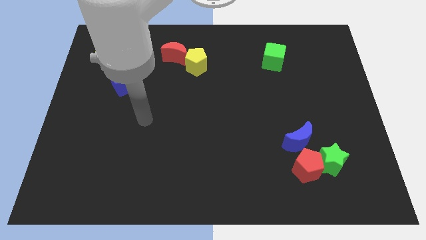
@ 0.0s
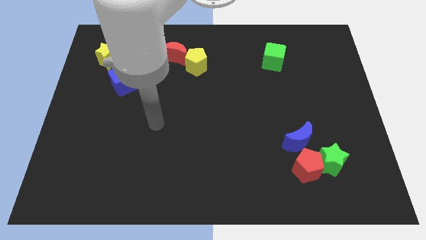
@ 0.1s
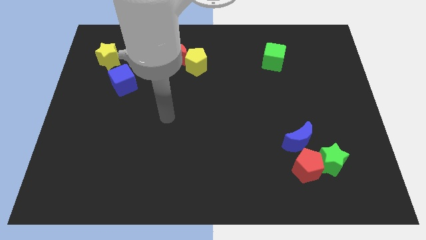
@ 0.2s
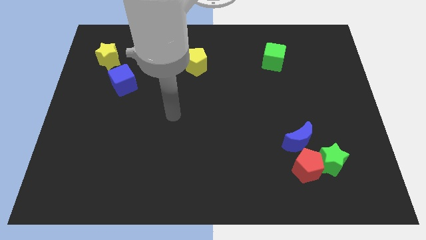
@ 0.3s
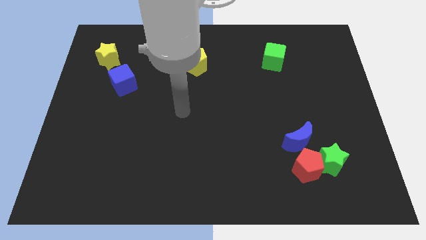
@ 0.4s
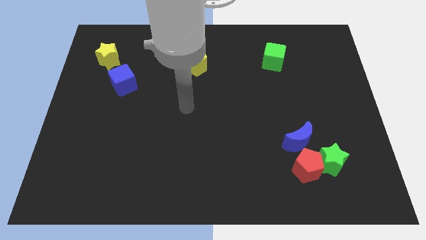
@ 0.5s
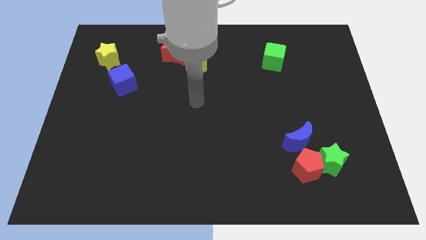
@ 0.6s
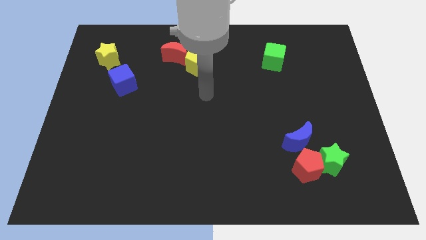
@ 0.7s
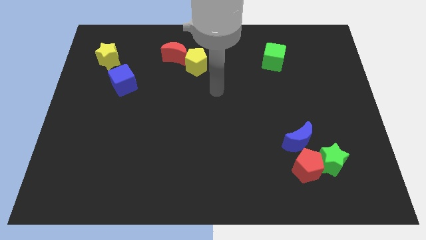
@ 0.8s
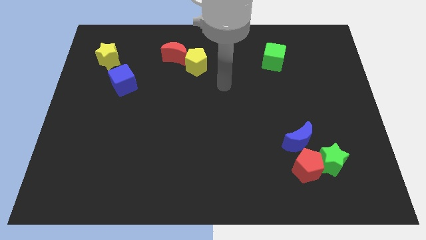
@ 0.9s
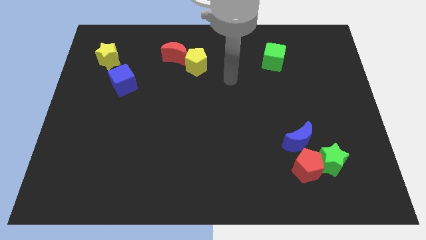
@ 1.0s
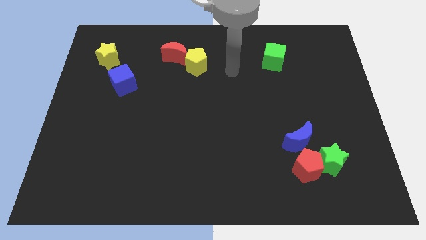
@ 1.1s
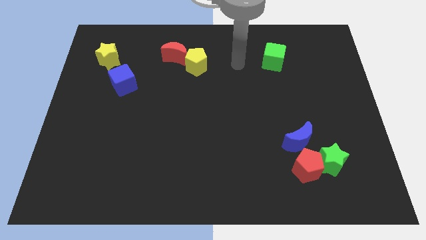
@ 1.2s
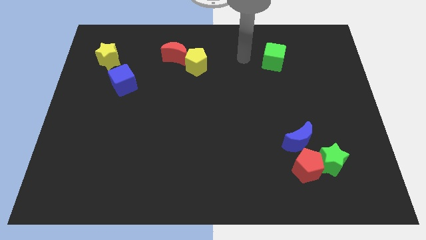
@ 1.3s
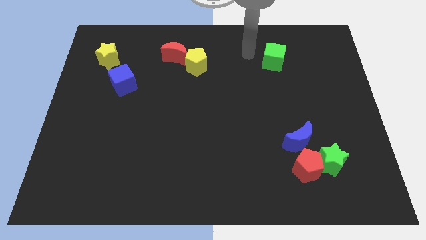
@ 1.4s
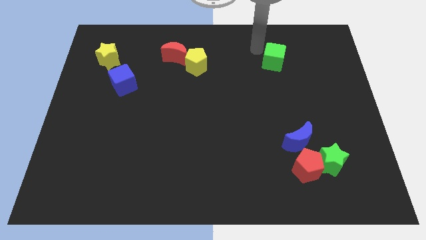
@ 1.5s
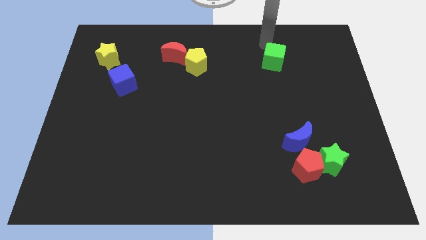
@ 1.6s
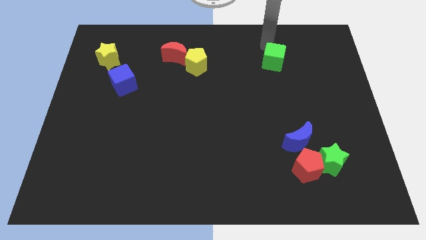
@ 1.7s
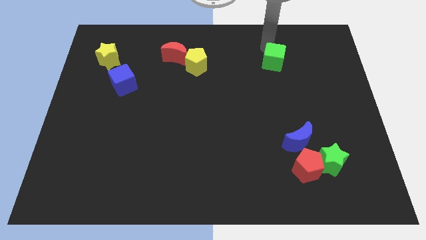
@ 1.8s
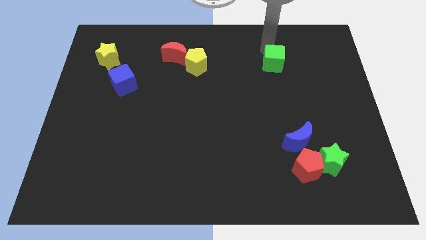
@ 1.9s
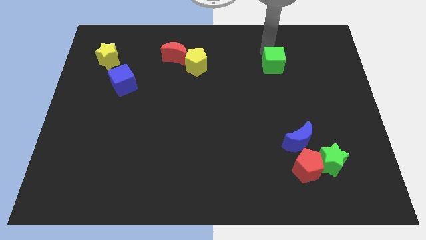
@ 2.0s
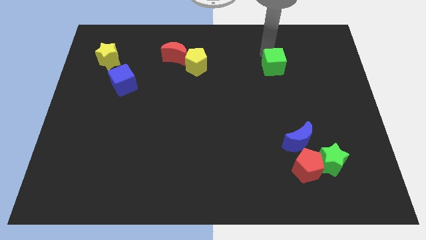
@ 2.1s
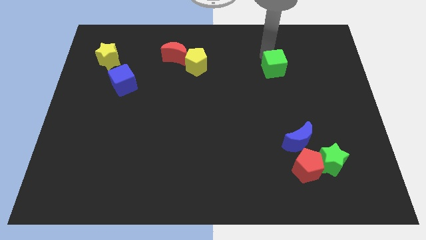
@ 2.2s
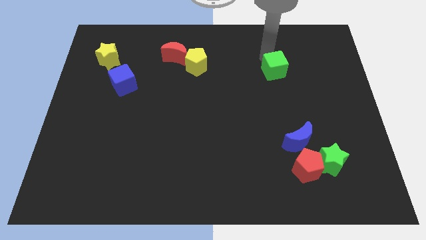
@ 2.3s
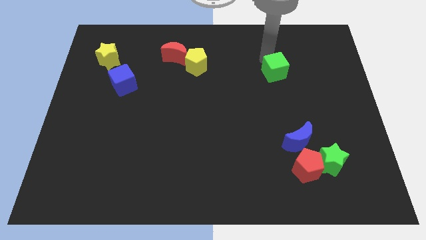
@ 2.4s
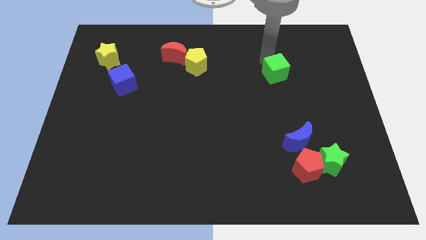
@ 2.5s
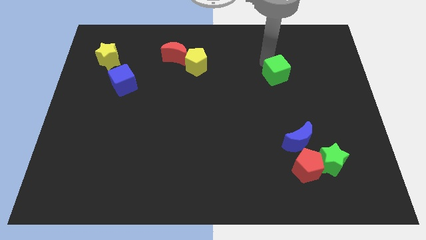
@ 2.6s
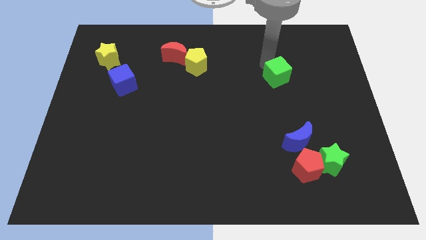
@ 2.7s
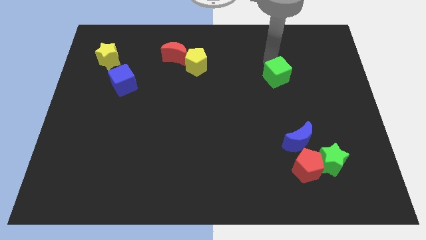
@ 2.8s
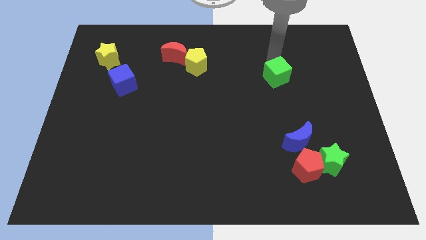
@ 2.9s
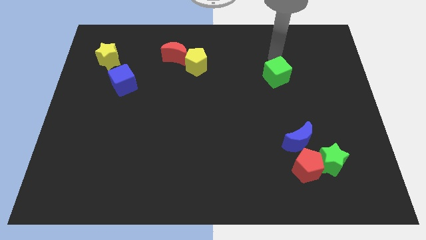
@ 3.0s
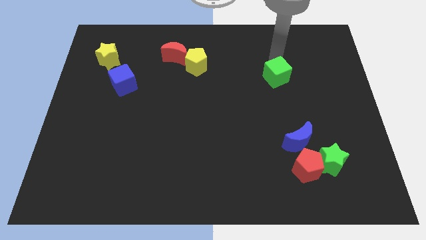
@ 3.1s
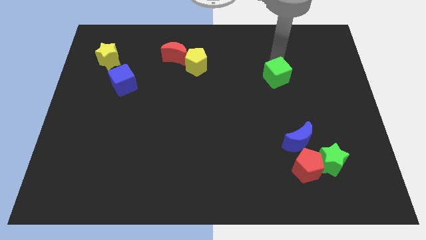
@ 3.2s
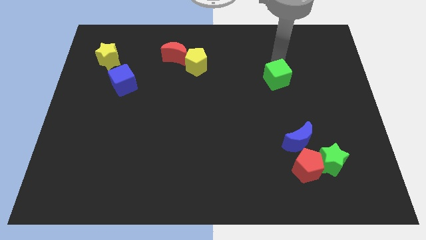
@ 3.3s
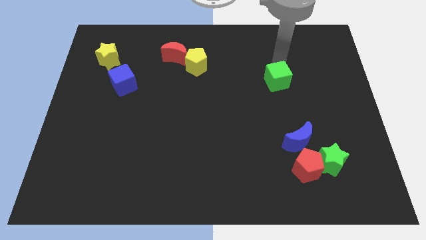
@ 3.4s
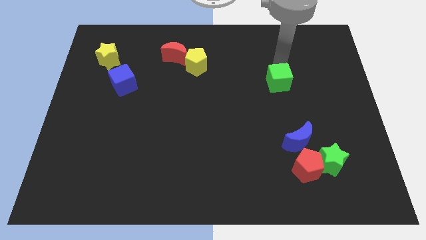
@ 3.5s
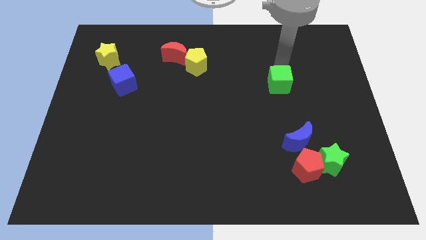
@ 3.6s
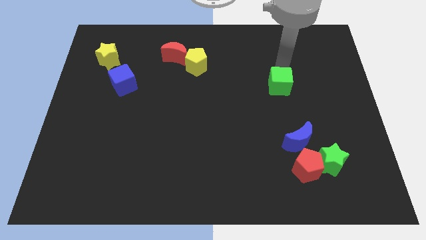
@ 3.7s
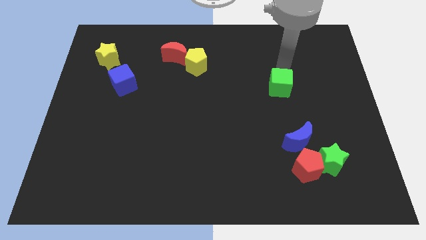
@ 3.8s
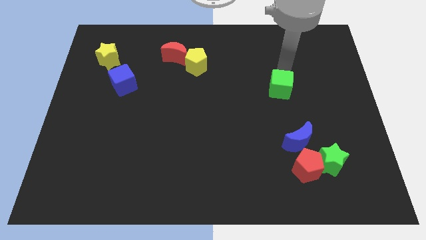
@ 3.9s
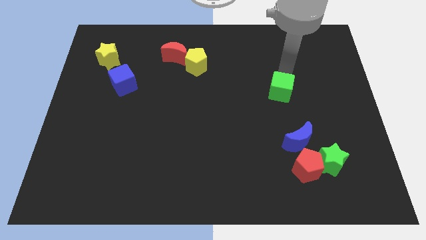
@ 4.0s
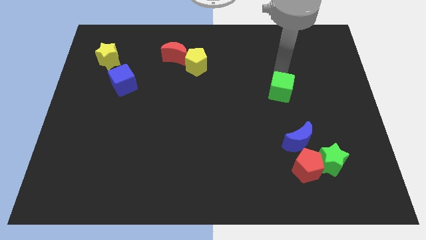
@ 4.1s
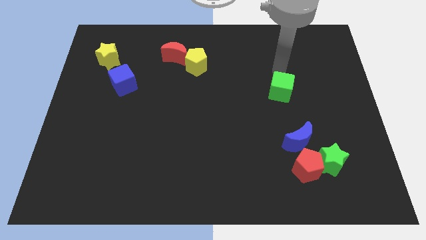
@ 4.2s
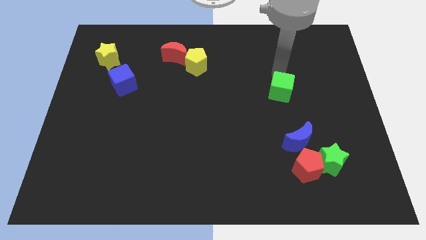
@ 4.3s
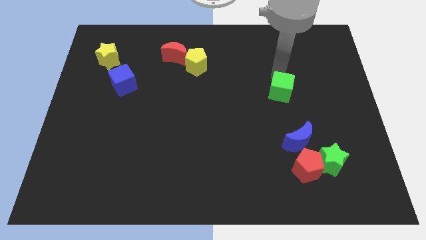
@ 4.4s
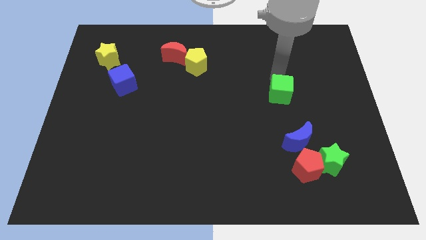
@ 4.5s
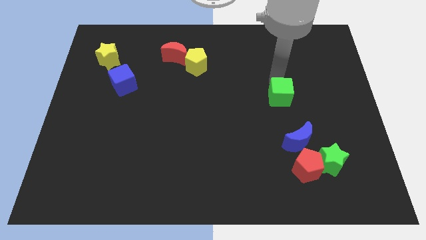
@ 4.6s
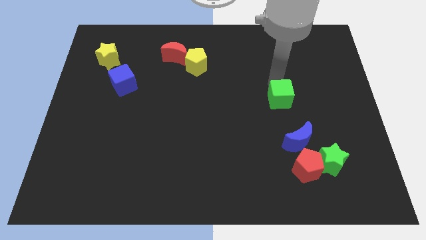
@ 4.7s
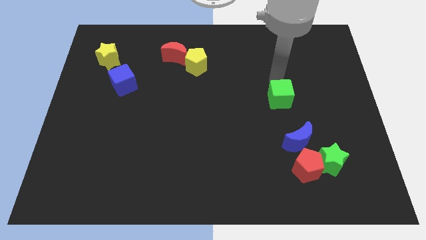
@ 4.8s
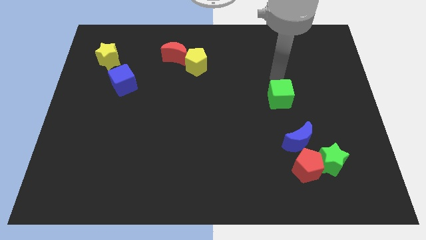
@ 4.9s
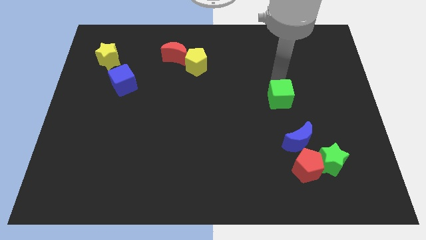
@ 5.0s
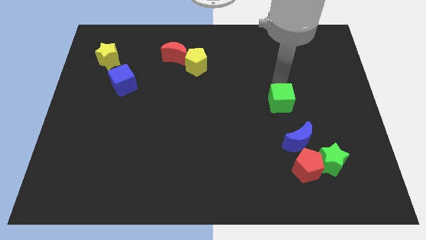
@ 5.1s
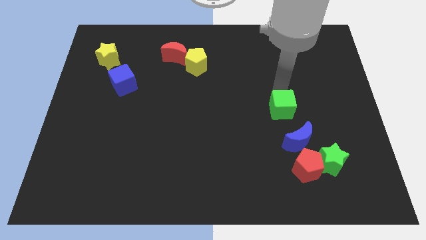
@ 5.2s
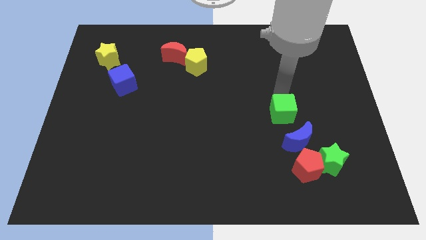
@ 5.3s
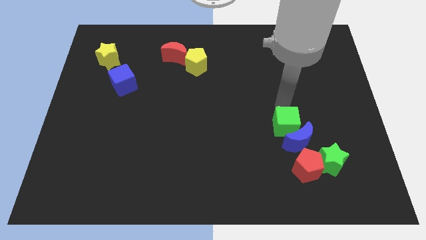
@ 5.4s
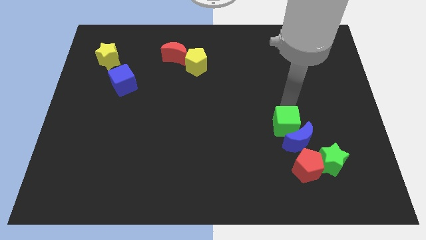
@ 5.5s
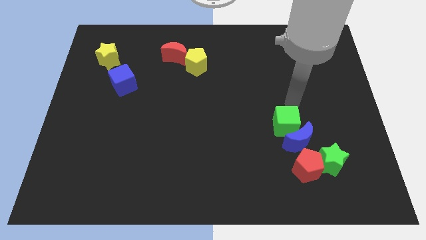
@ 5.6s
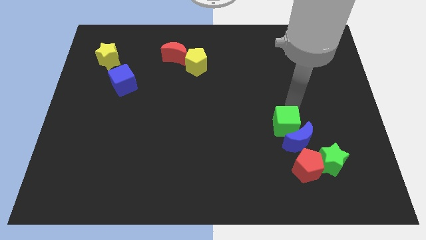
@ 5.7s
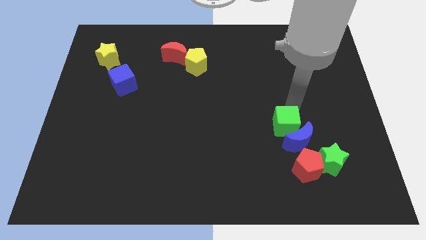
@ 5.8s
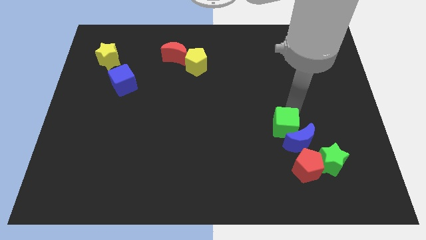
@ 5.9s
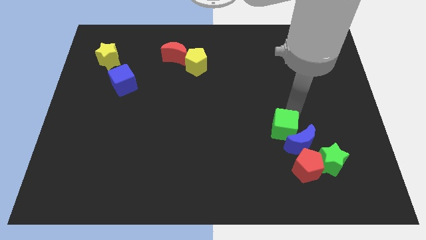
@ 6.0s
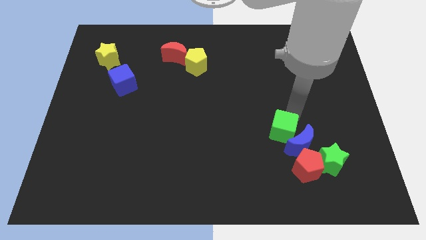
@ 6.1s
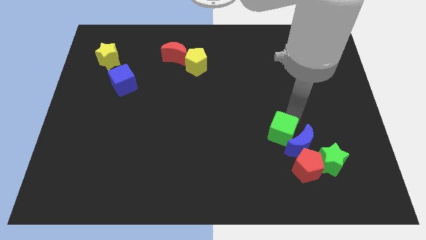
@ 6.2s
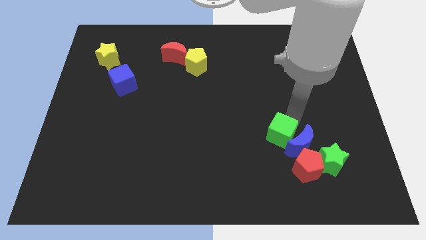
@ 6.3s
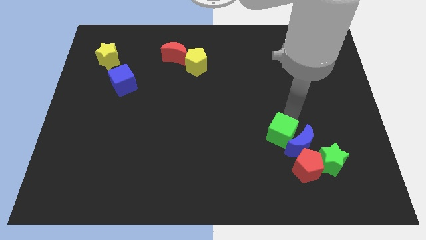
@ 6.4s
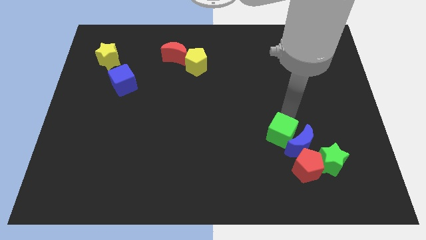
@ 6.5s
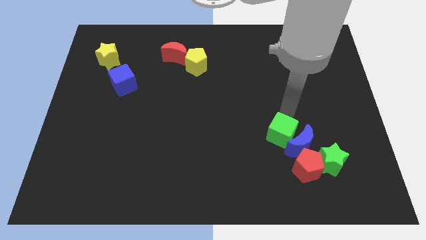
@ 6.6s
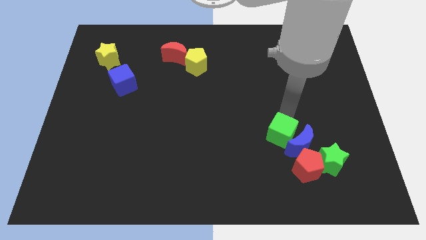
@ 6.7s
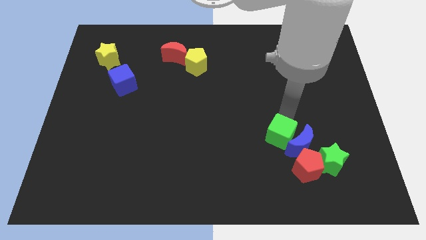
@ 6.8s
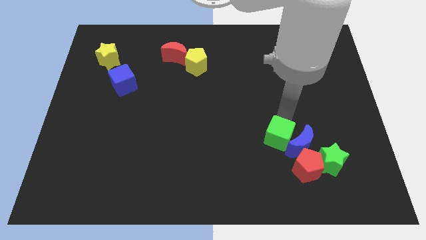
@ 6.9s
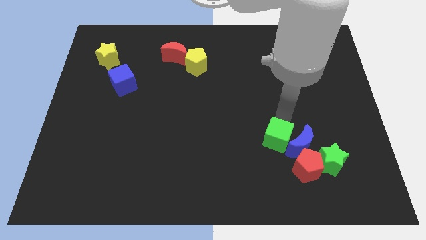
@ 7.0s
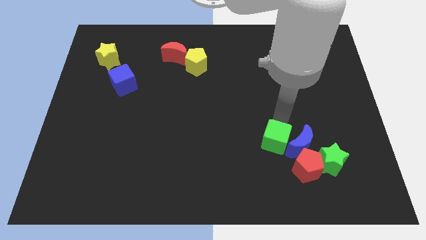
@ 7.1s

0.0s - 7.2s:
move the green cube to the bottom left of the blue moon

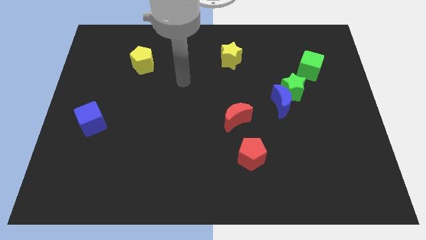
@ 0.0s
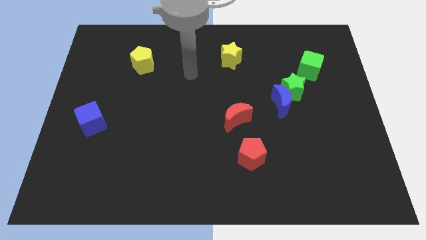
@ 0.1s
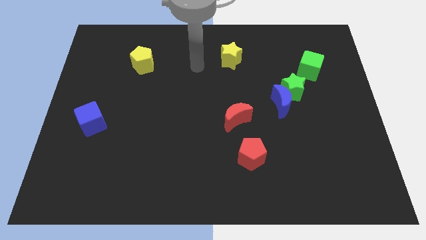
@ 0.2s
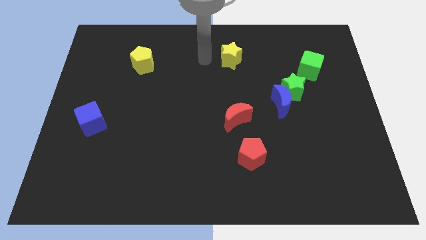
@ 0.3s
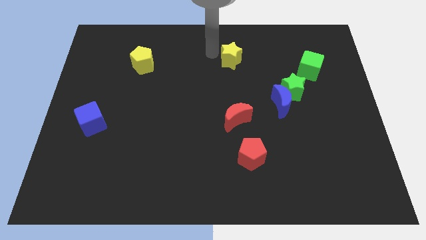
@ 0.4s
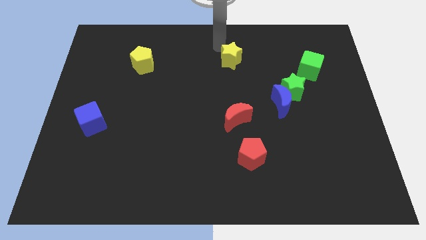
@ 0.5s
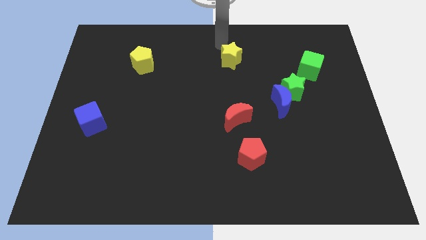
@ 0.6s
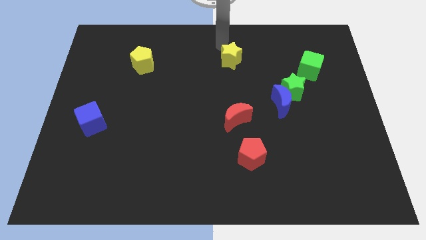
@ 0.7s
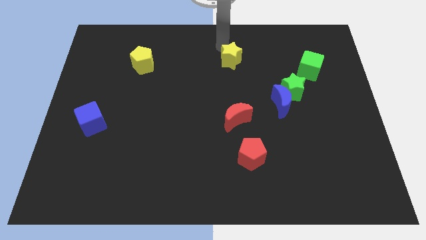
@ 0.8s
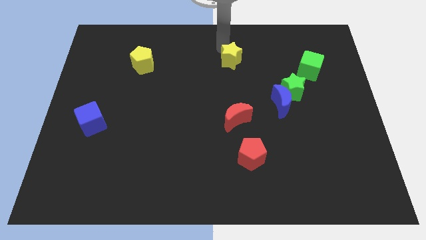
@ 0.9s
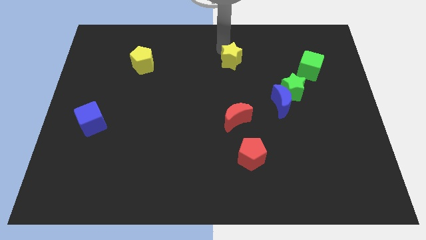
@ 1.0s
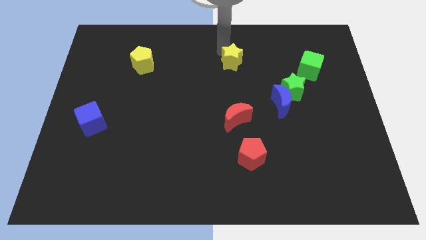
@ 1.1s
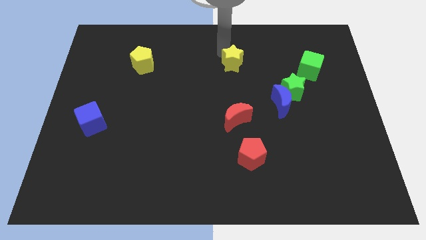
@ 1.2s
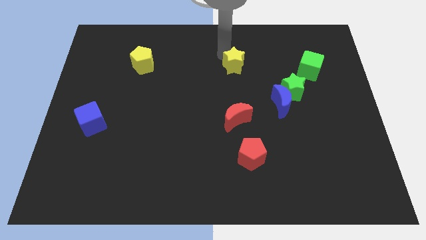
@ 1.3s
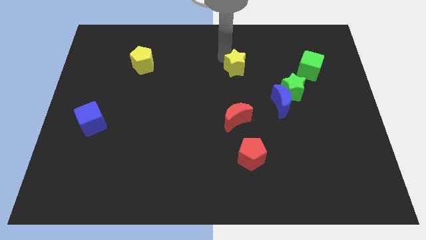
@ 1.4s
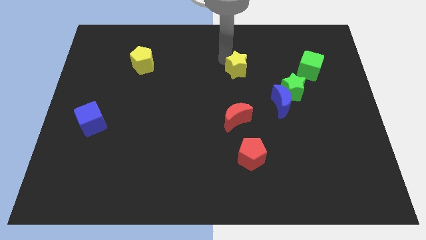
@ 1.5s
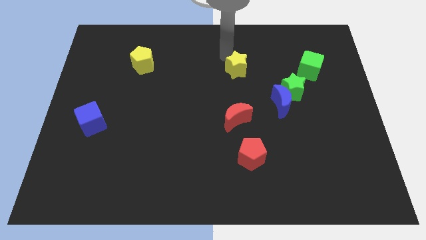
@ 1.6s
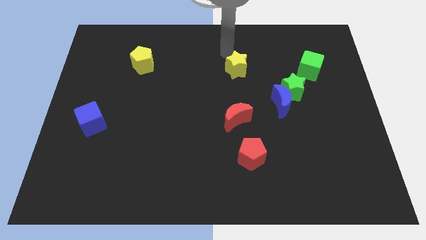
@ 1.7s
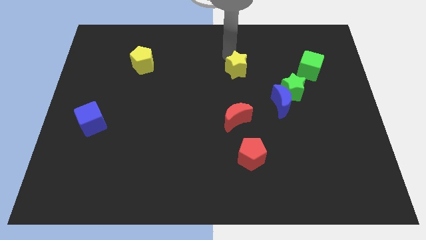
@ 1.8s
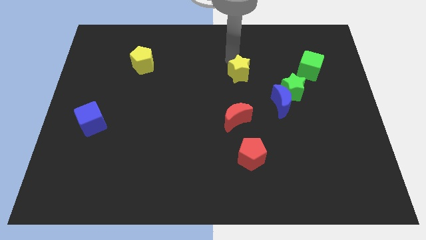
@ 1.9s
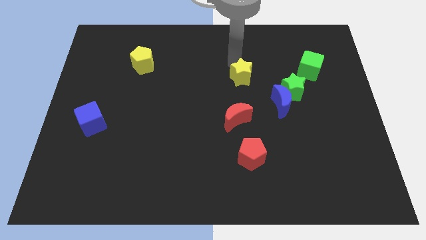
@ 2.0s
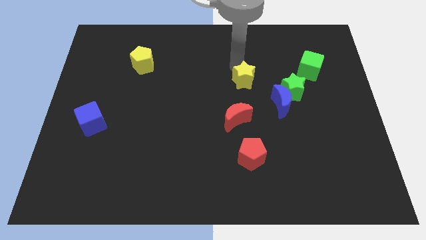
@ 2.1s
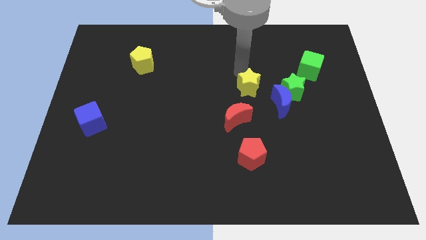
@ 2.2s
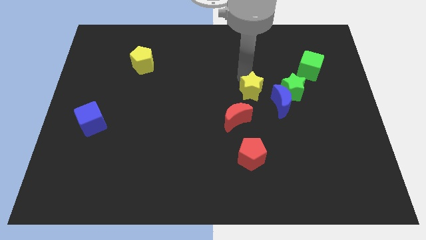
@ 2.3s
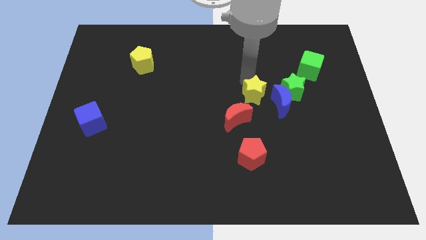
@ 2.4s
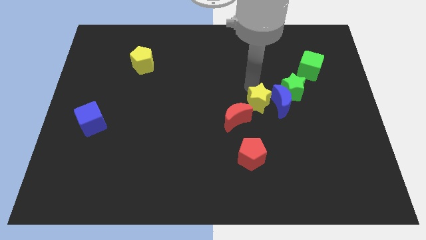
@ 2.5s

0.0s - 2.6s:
put the yellow star diagonally down and to the left of the blue moon
